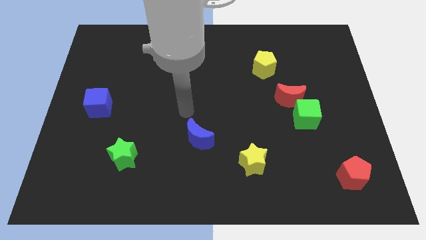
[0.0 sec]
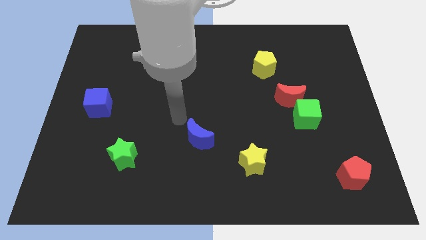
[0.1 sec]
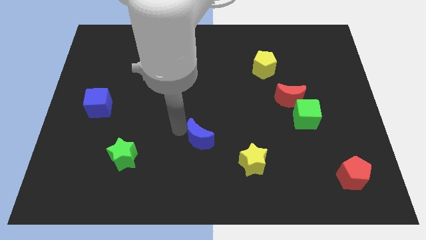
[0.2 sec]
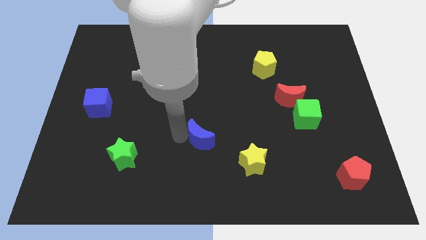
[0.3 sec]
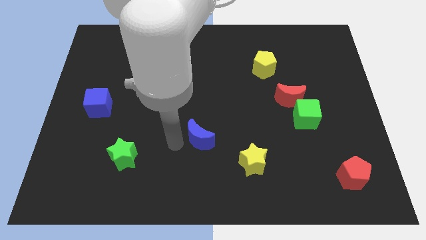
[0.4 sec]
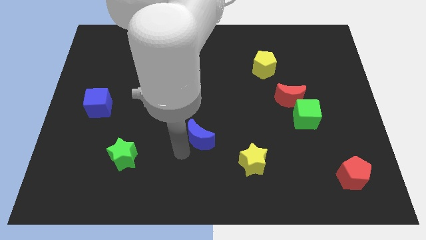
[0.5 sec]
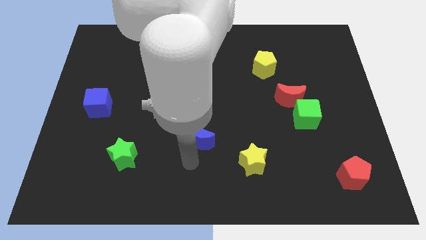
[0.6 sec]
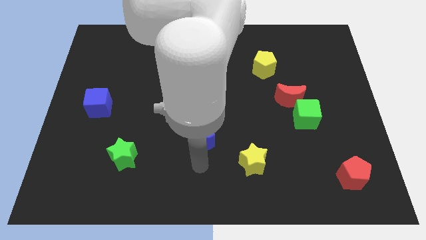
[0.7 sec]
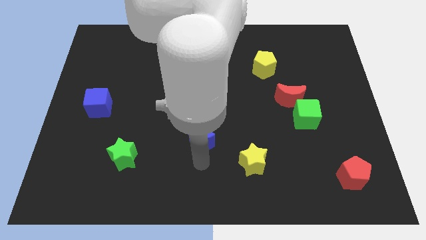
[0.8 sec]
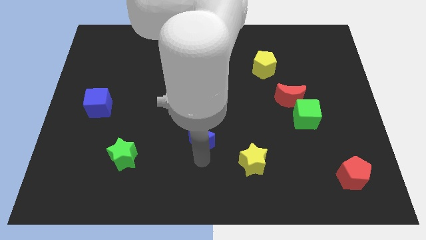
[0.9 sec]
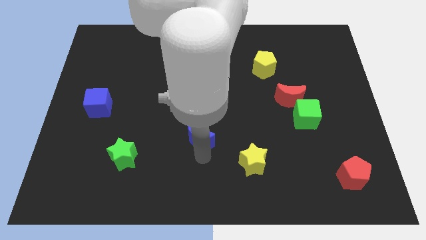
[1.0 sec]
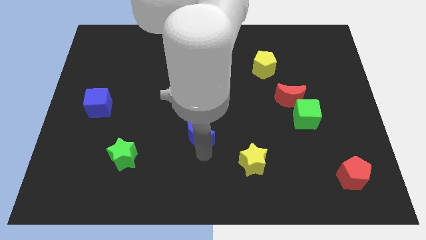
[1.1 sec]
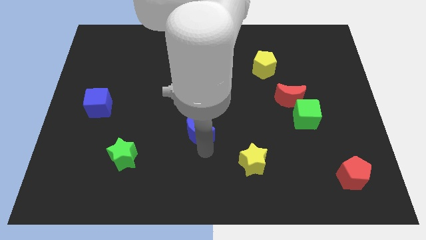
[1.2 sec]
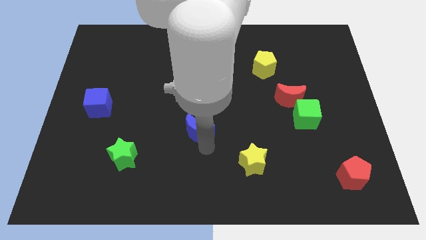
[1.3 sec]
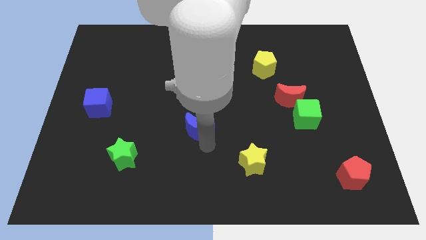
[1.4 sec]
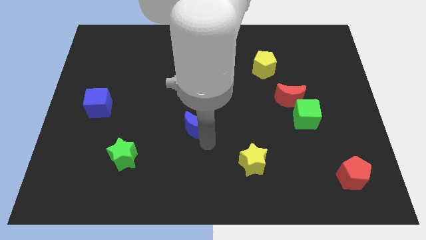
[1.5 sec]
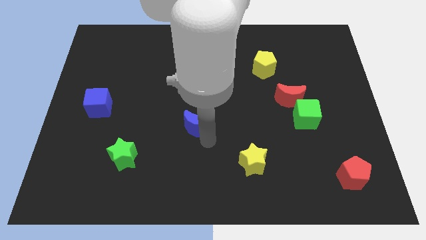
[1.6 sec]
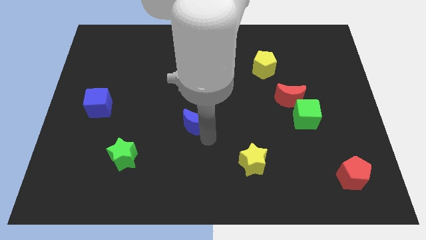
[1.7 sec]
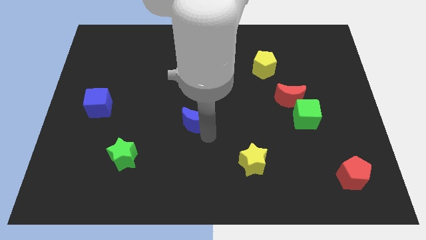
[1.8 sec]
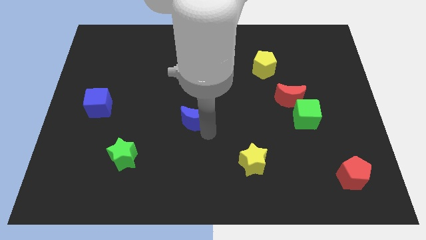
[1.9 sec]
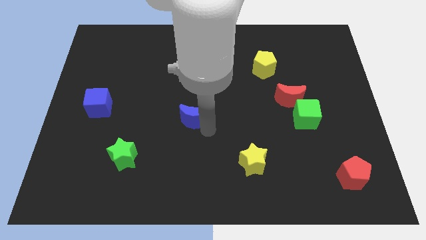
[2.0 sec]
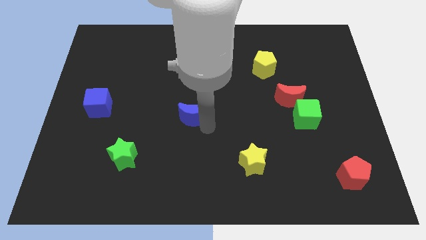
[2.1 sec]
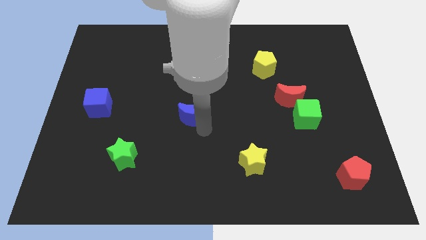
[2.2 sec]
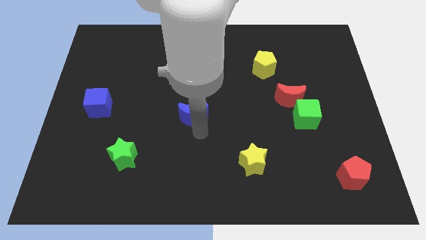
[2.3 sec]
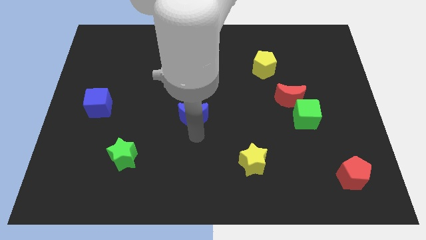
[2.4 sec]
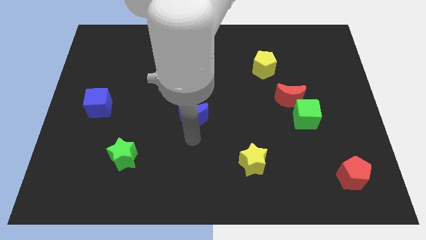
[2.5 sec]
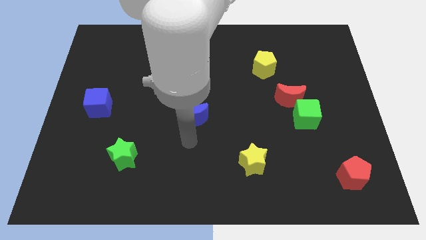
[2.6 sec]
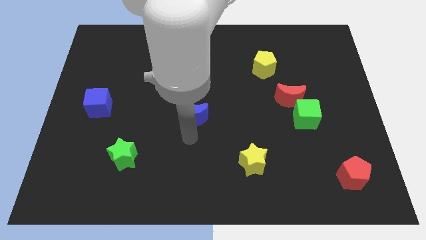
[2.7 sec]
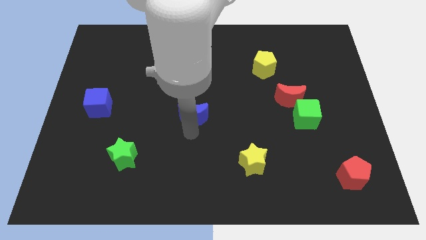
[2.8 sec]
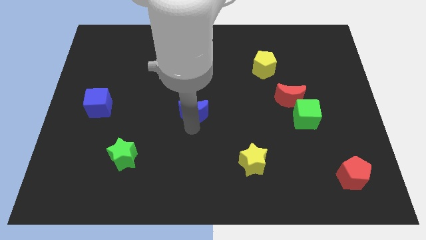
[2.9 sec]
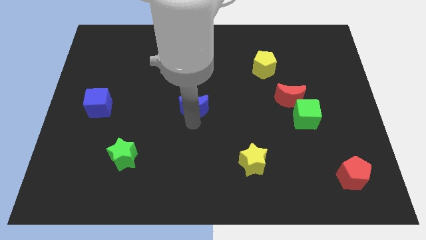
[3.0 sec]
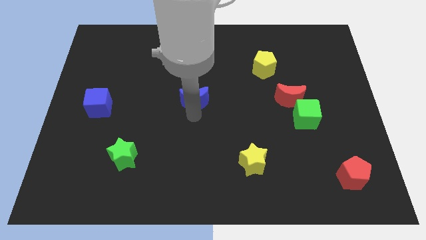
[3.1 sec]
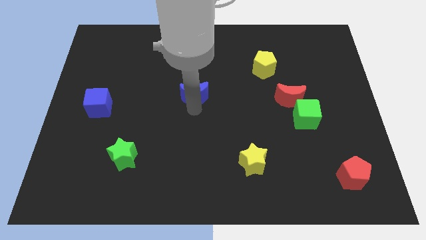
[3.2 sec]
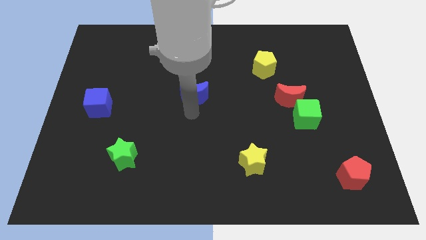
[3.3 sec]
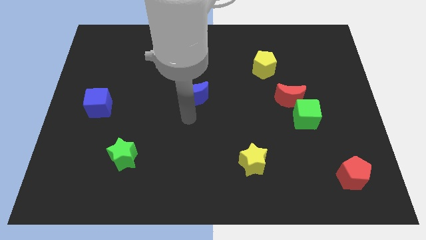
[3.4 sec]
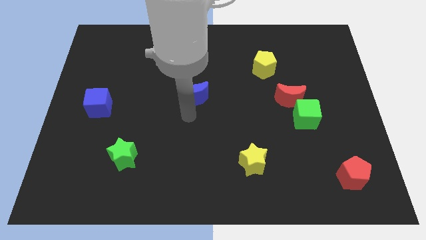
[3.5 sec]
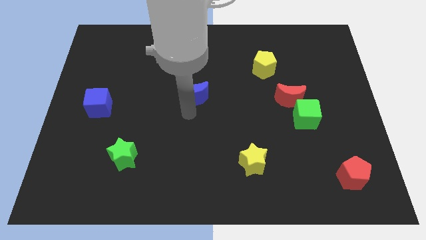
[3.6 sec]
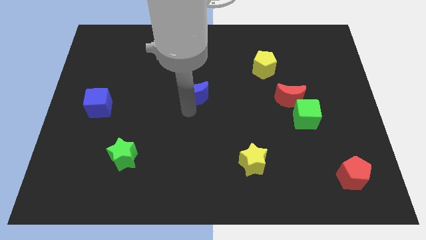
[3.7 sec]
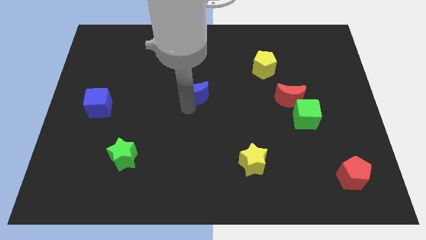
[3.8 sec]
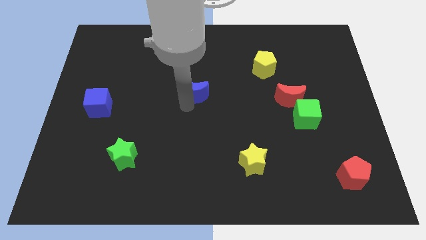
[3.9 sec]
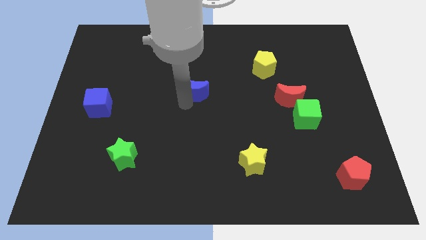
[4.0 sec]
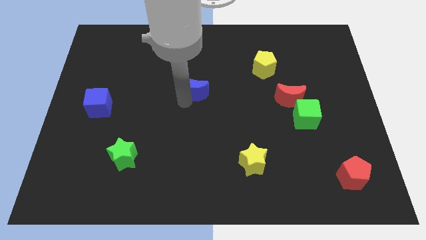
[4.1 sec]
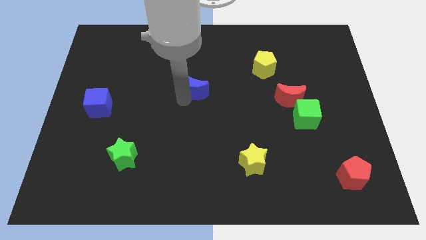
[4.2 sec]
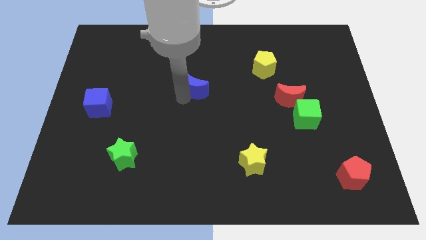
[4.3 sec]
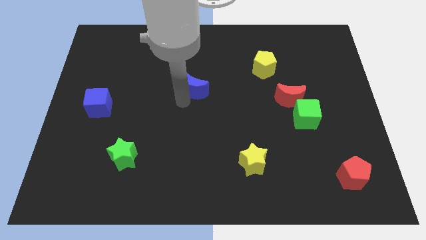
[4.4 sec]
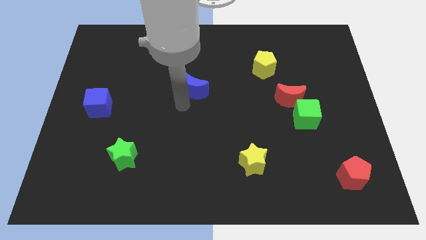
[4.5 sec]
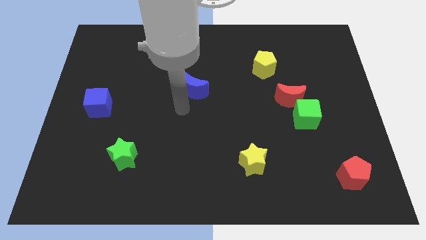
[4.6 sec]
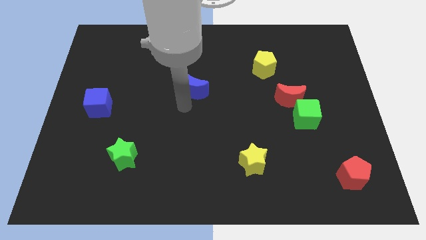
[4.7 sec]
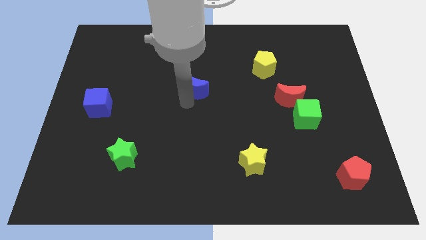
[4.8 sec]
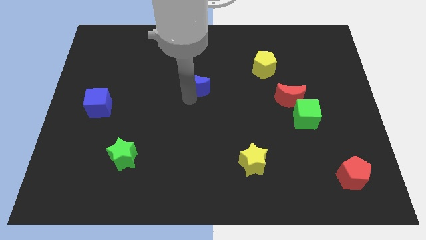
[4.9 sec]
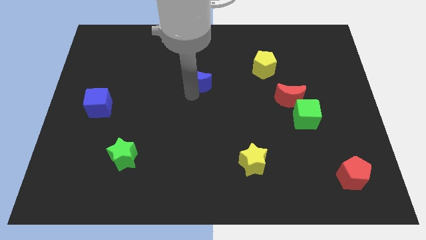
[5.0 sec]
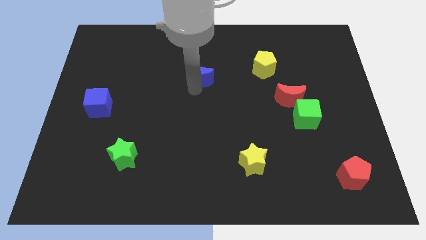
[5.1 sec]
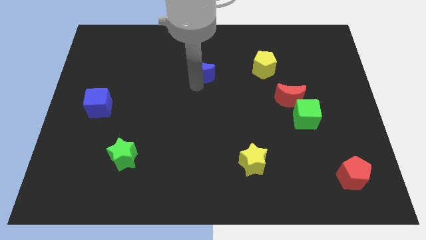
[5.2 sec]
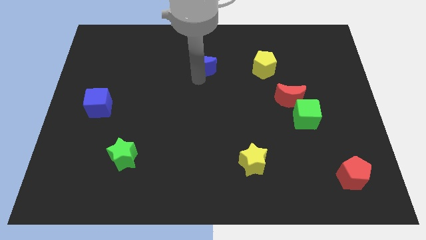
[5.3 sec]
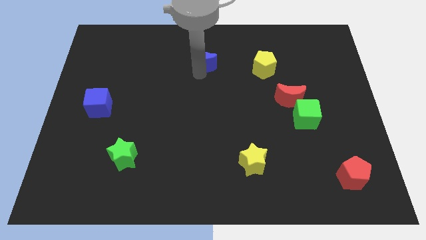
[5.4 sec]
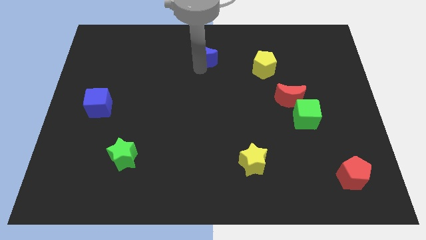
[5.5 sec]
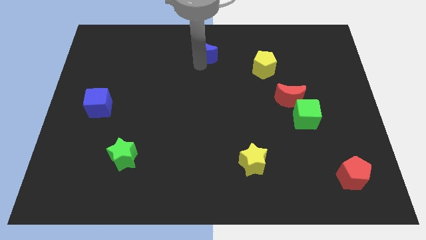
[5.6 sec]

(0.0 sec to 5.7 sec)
move the blue moon to the top side
